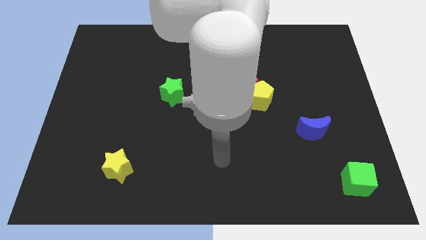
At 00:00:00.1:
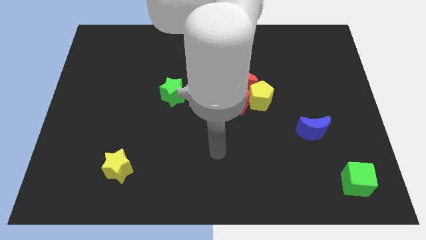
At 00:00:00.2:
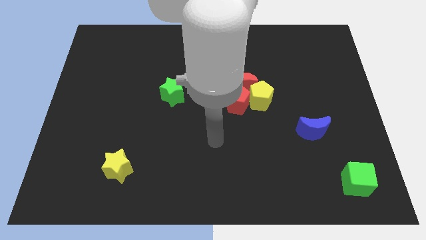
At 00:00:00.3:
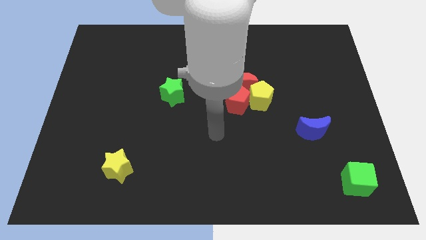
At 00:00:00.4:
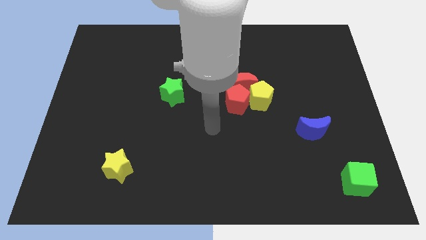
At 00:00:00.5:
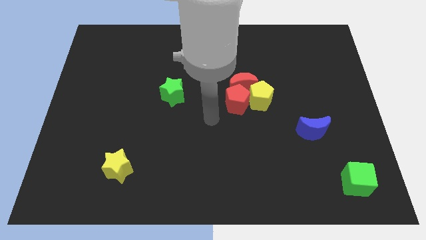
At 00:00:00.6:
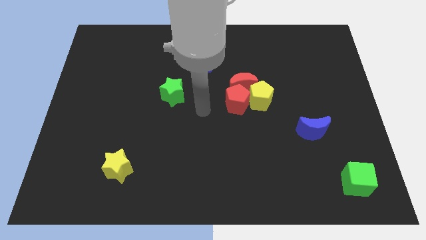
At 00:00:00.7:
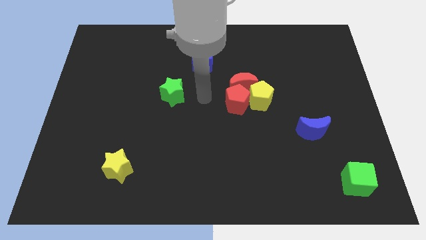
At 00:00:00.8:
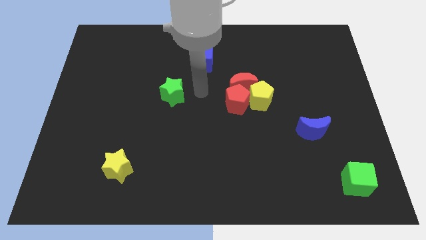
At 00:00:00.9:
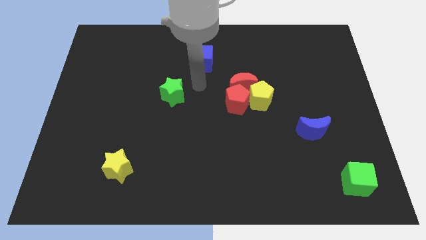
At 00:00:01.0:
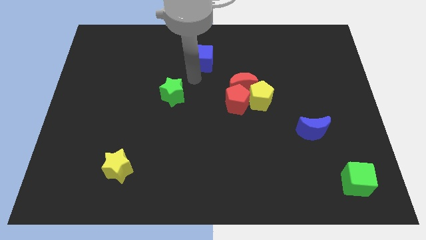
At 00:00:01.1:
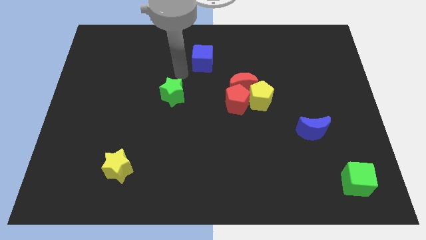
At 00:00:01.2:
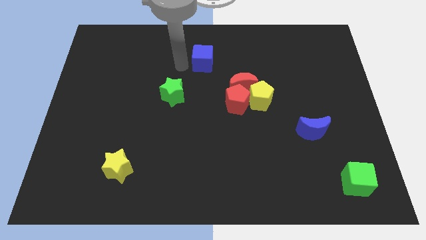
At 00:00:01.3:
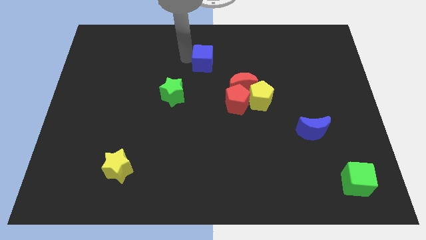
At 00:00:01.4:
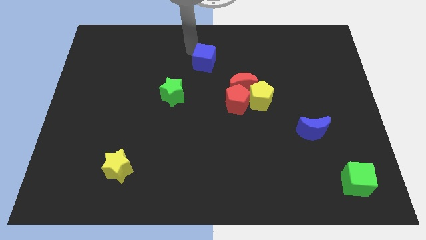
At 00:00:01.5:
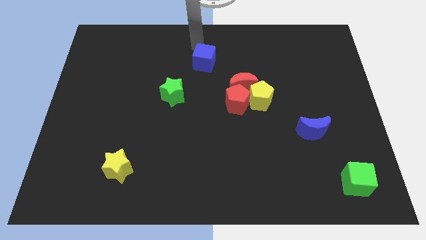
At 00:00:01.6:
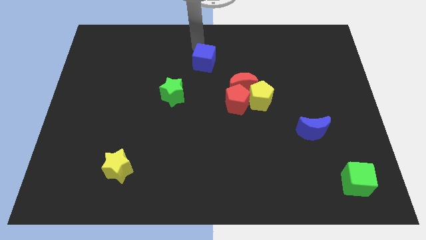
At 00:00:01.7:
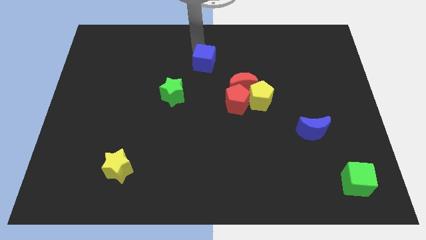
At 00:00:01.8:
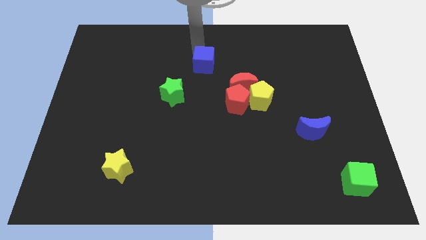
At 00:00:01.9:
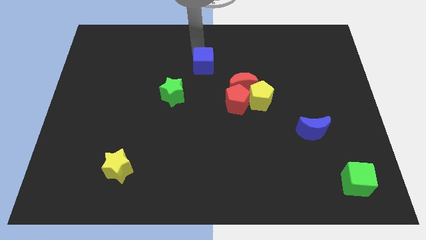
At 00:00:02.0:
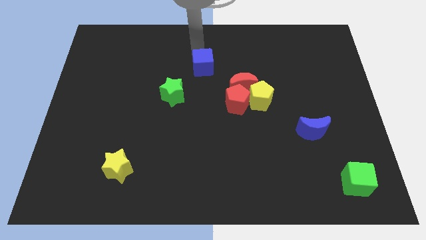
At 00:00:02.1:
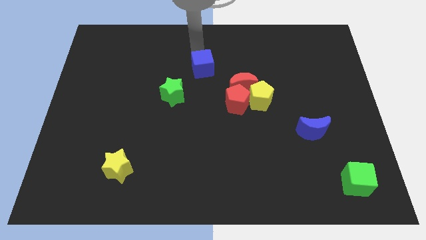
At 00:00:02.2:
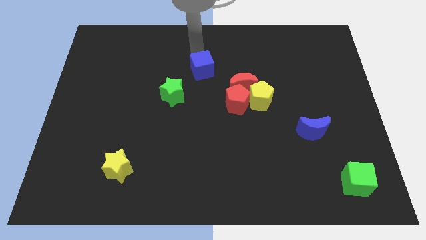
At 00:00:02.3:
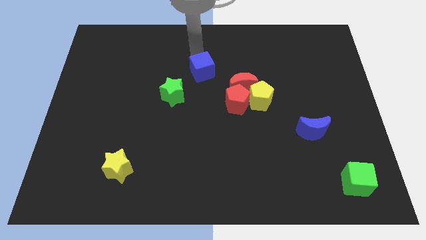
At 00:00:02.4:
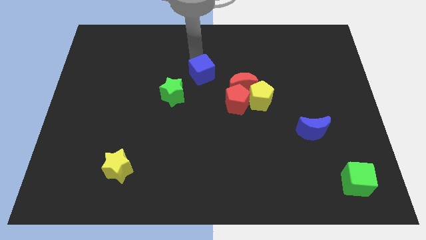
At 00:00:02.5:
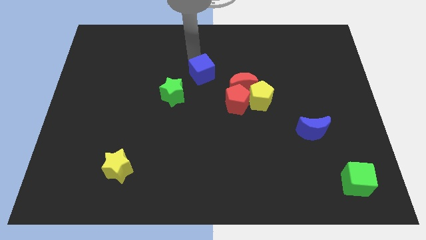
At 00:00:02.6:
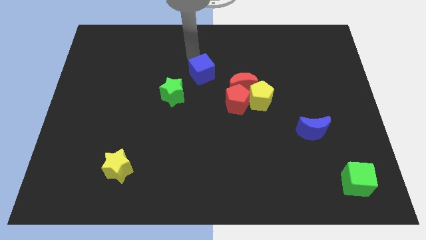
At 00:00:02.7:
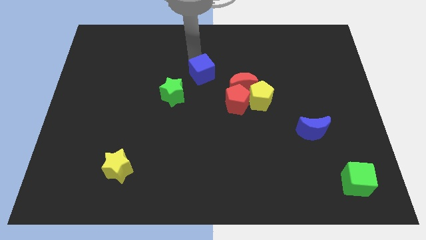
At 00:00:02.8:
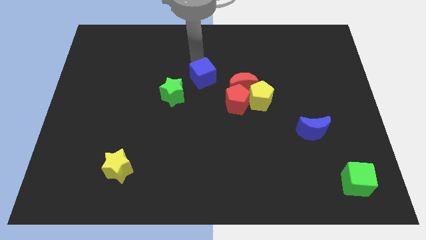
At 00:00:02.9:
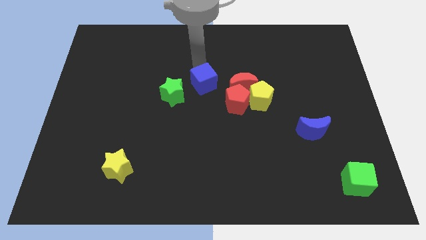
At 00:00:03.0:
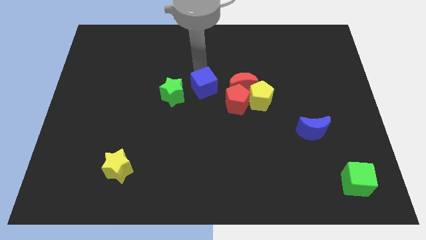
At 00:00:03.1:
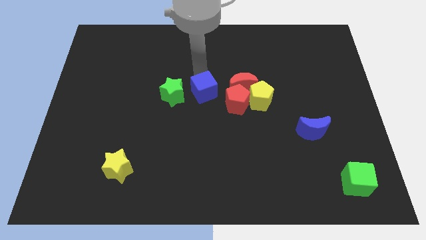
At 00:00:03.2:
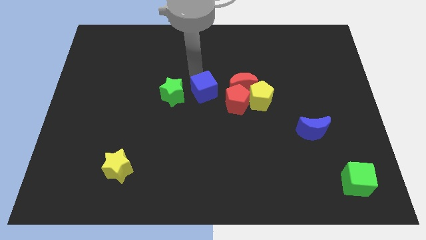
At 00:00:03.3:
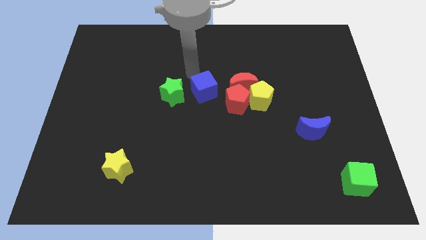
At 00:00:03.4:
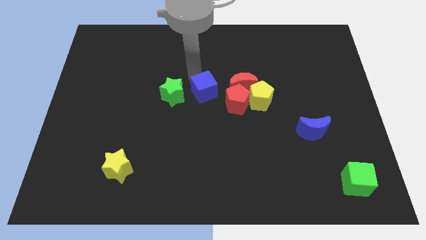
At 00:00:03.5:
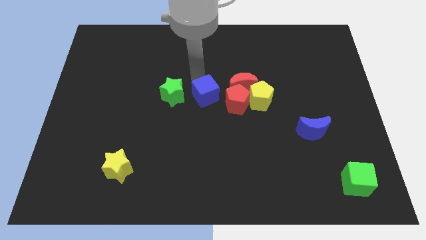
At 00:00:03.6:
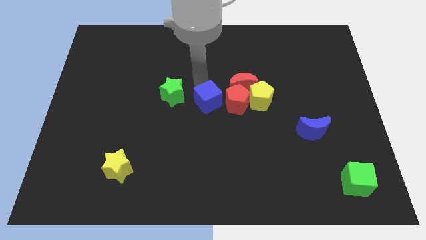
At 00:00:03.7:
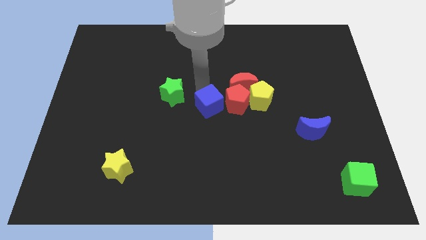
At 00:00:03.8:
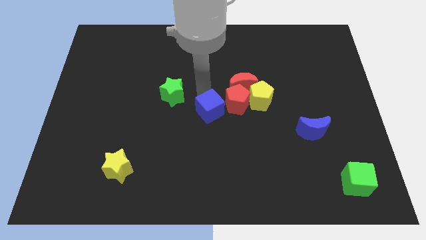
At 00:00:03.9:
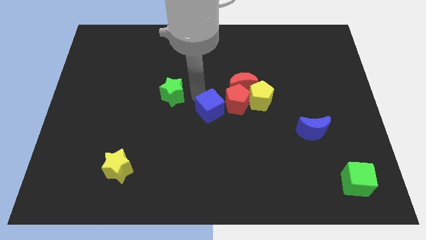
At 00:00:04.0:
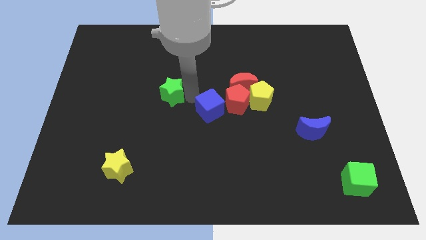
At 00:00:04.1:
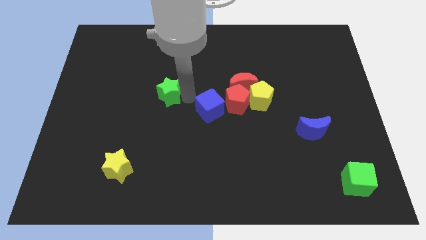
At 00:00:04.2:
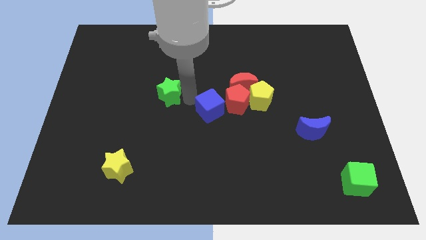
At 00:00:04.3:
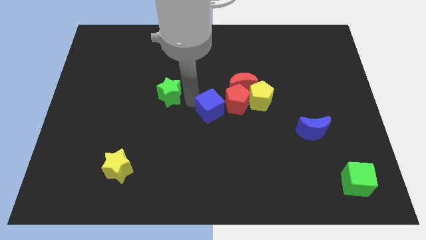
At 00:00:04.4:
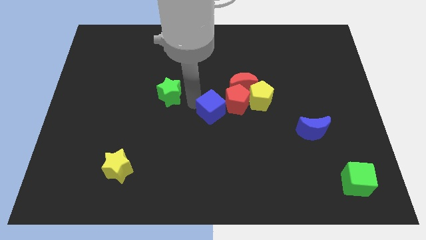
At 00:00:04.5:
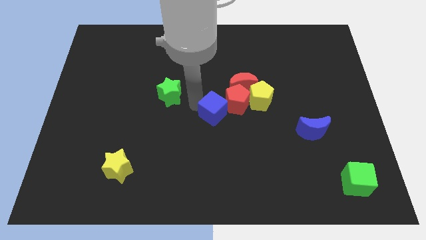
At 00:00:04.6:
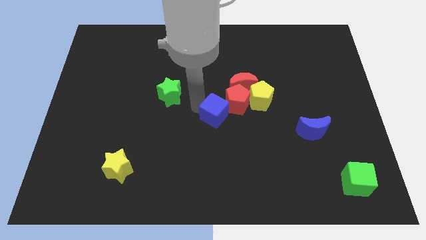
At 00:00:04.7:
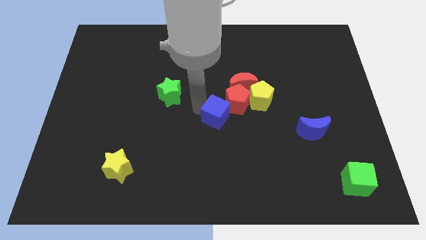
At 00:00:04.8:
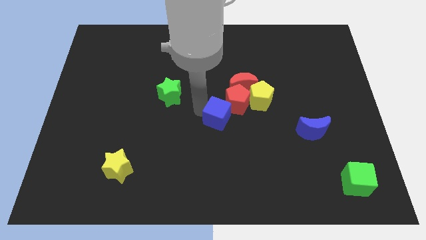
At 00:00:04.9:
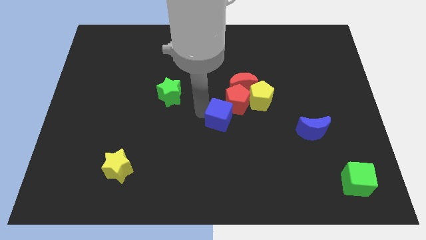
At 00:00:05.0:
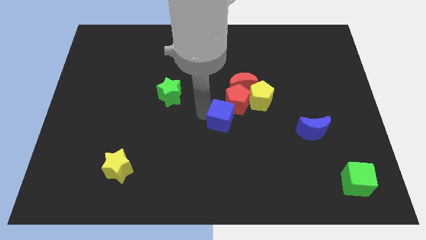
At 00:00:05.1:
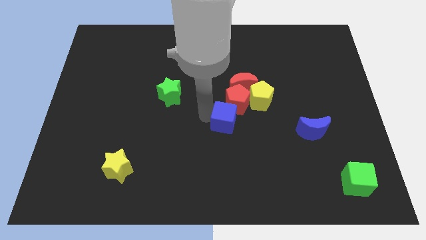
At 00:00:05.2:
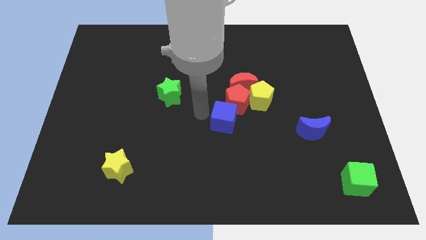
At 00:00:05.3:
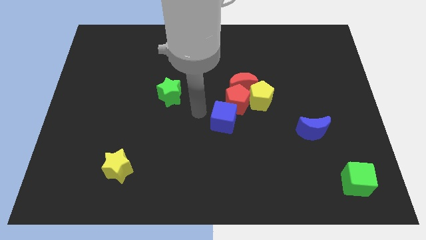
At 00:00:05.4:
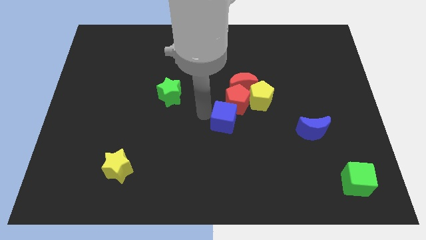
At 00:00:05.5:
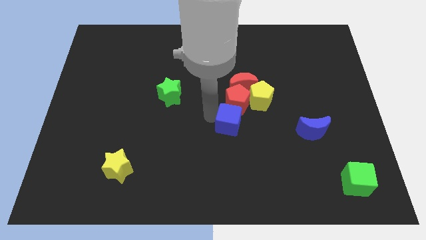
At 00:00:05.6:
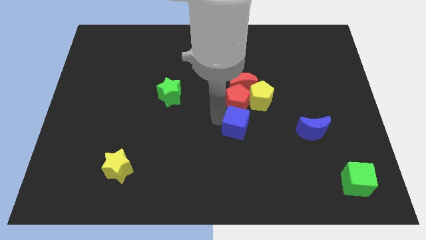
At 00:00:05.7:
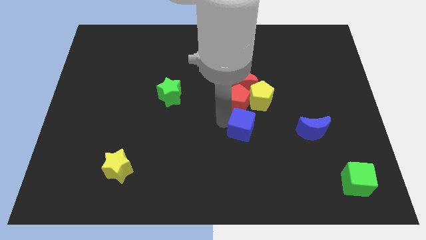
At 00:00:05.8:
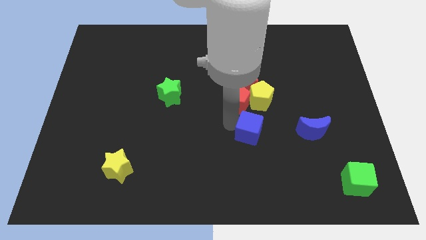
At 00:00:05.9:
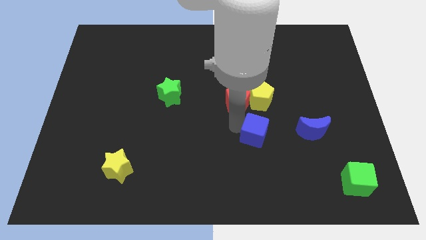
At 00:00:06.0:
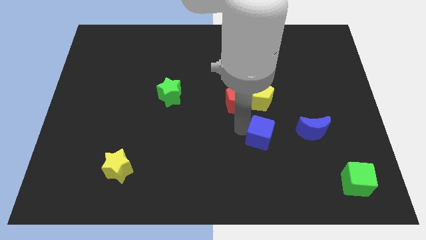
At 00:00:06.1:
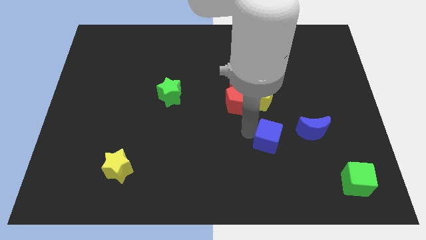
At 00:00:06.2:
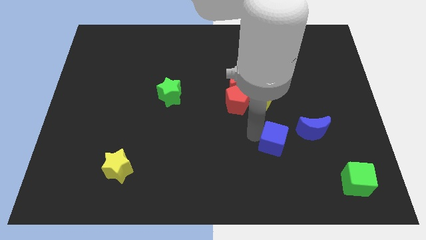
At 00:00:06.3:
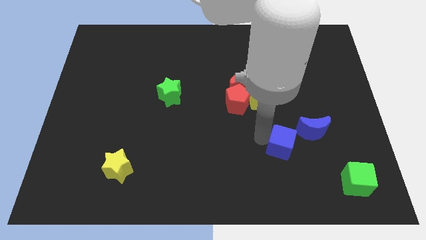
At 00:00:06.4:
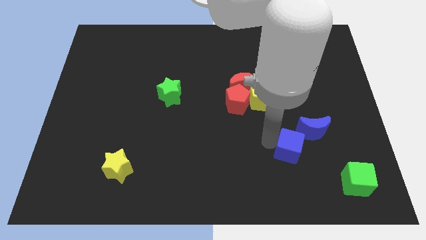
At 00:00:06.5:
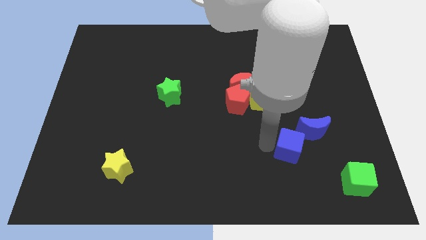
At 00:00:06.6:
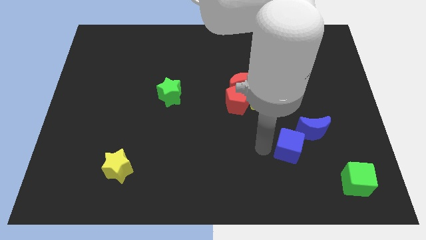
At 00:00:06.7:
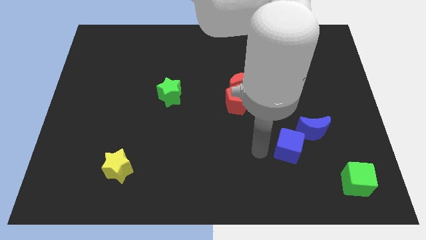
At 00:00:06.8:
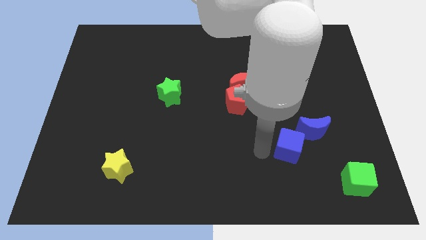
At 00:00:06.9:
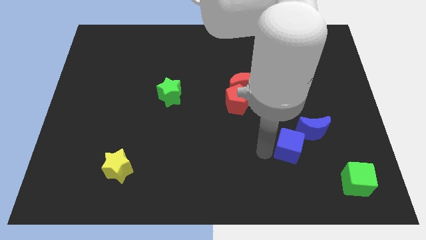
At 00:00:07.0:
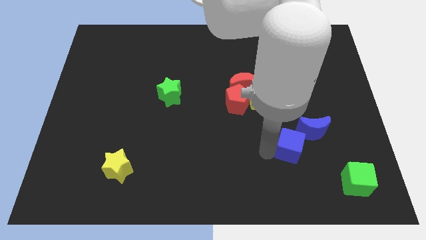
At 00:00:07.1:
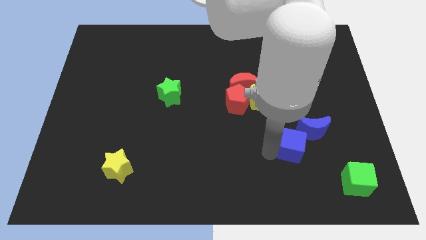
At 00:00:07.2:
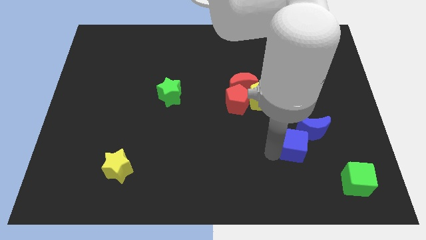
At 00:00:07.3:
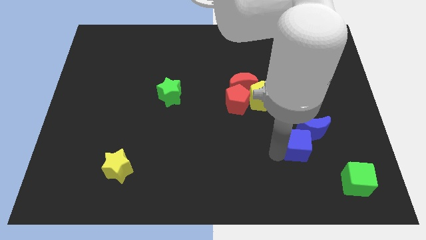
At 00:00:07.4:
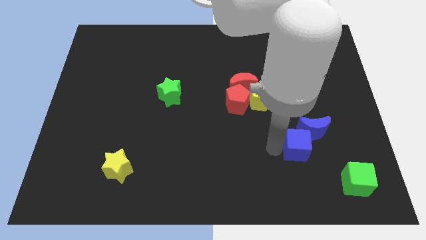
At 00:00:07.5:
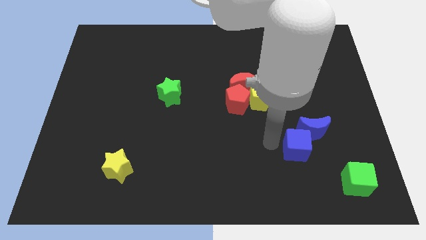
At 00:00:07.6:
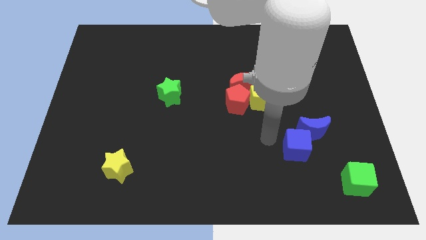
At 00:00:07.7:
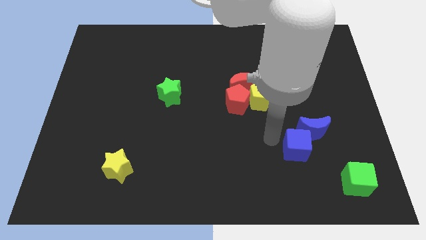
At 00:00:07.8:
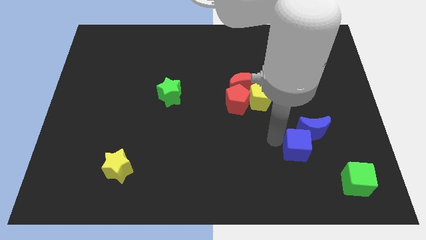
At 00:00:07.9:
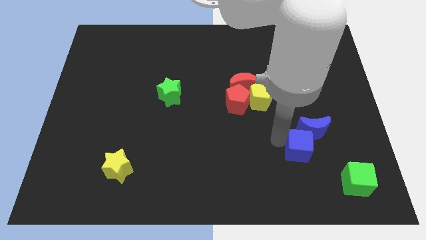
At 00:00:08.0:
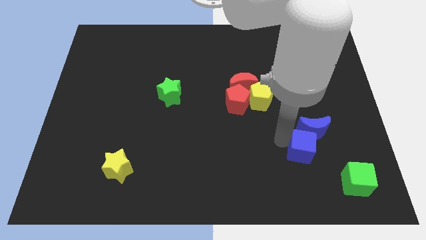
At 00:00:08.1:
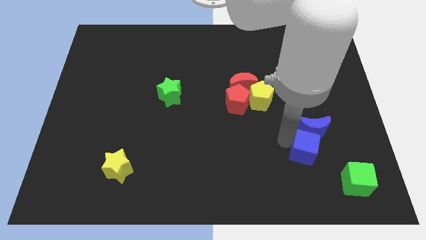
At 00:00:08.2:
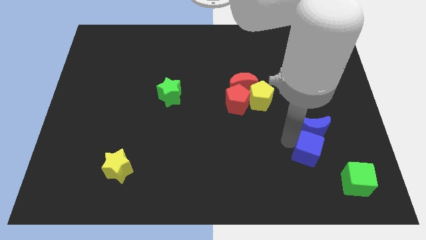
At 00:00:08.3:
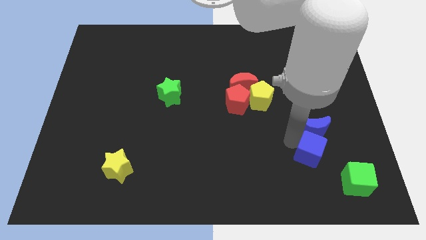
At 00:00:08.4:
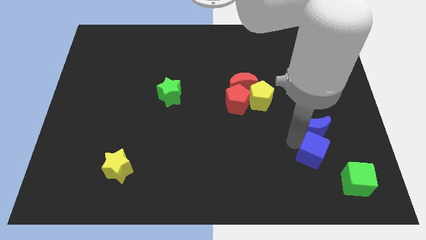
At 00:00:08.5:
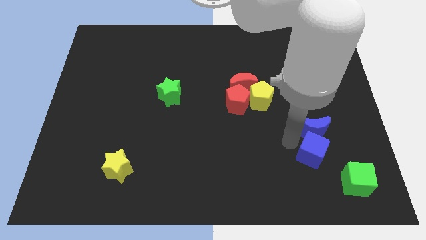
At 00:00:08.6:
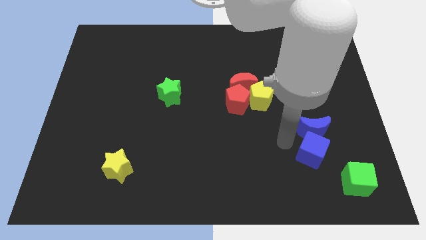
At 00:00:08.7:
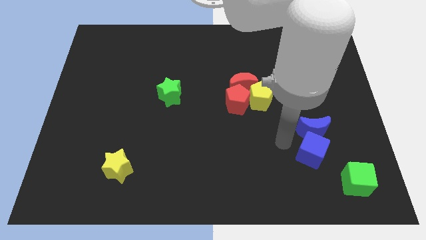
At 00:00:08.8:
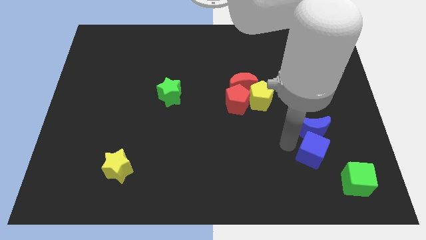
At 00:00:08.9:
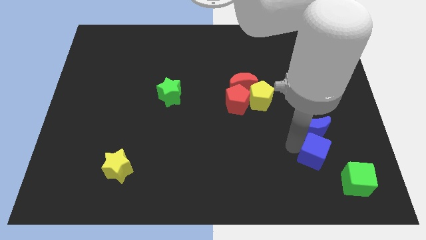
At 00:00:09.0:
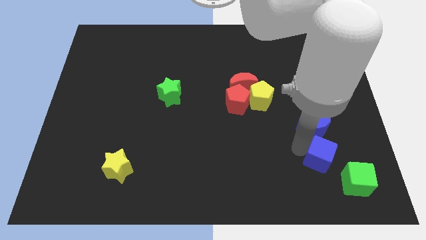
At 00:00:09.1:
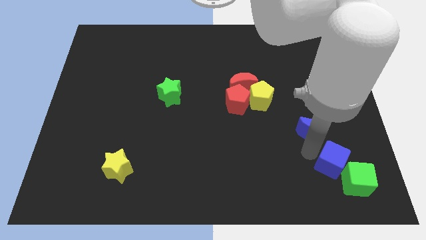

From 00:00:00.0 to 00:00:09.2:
slide the blue cube close to the green cube
